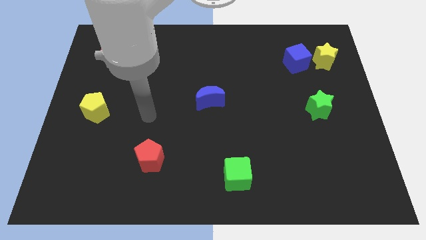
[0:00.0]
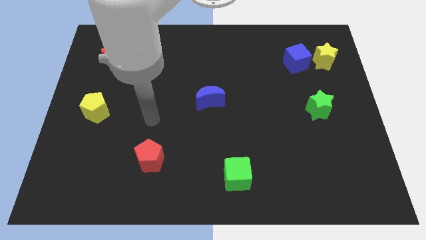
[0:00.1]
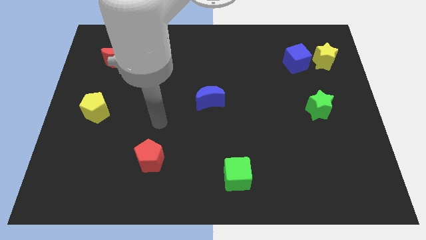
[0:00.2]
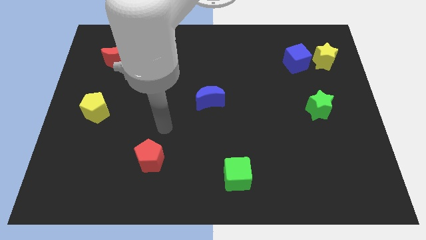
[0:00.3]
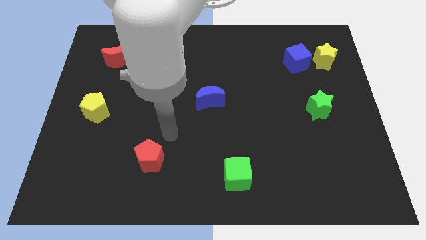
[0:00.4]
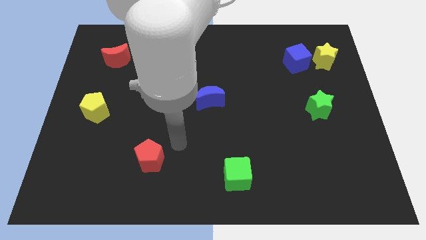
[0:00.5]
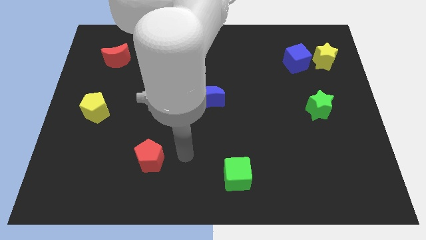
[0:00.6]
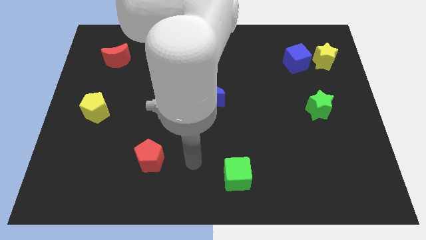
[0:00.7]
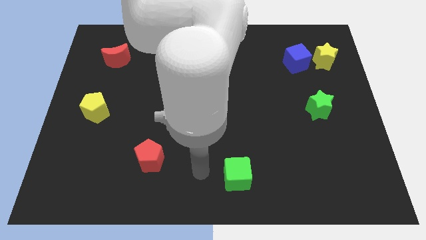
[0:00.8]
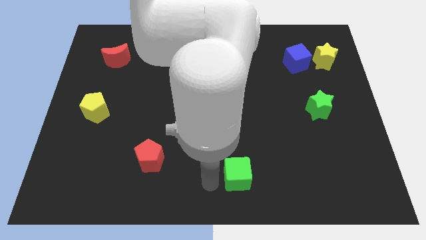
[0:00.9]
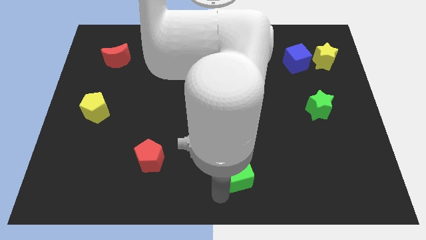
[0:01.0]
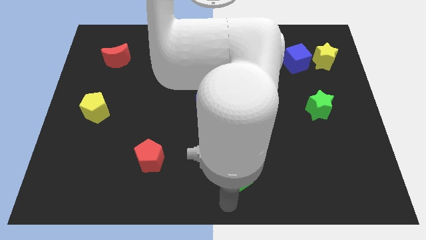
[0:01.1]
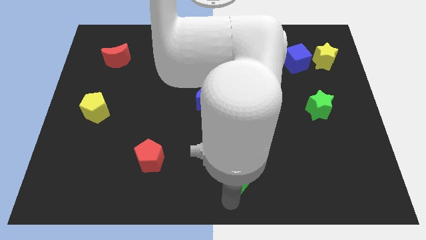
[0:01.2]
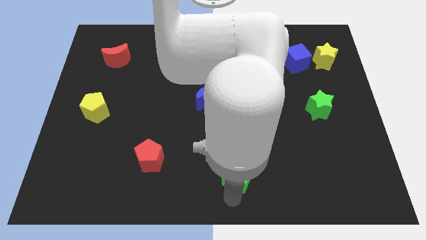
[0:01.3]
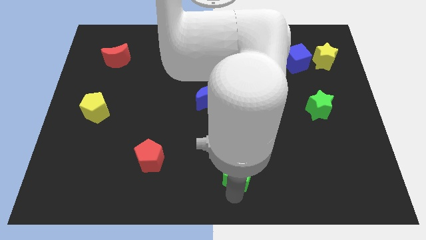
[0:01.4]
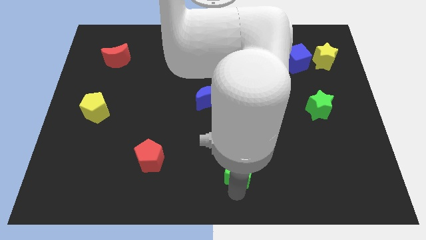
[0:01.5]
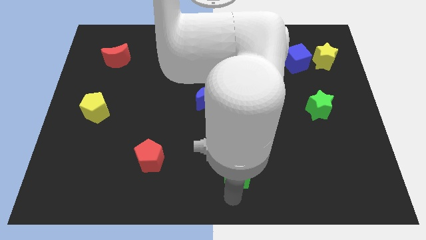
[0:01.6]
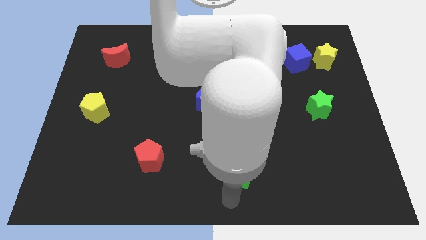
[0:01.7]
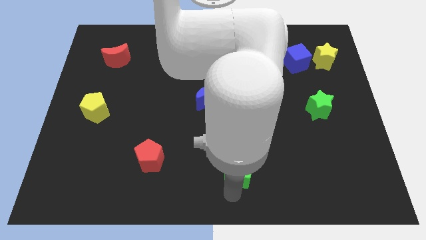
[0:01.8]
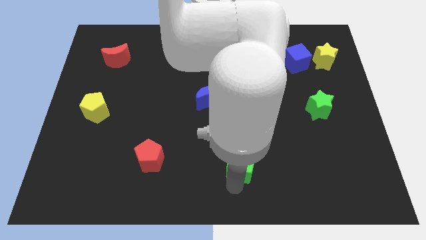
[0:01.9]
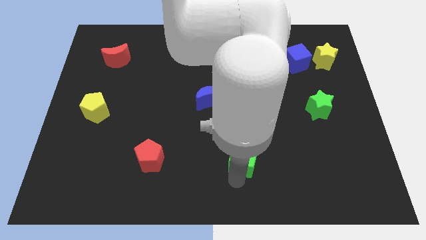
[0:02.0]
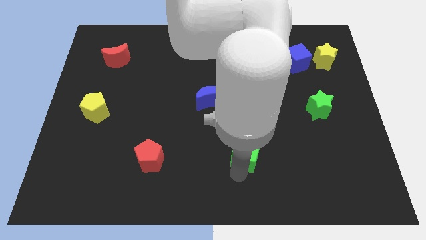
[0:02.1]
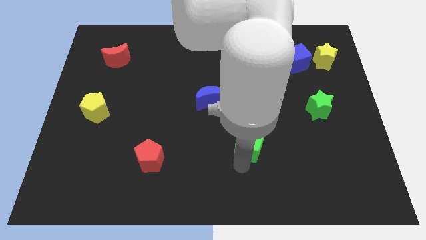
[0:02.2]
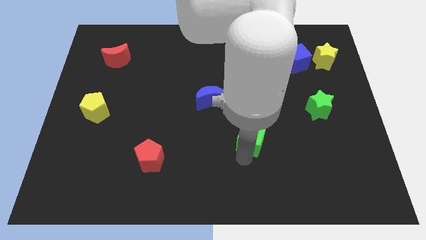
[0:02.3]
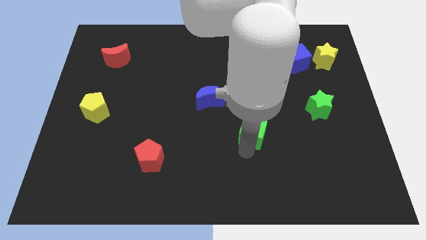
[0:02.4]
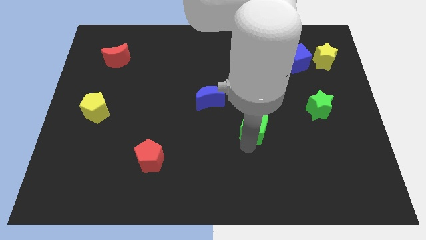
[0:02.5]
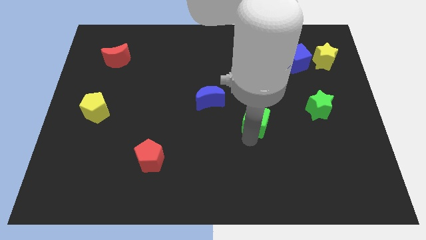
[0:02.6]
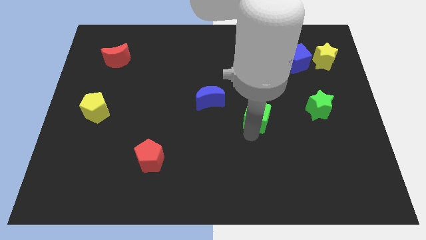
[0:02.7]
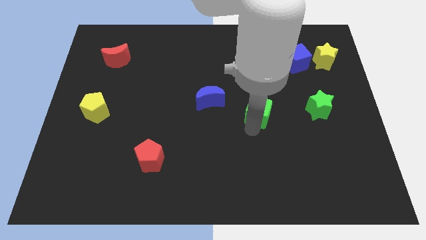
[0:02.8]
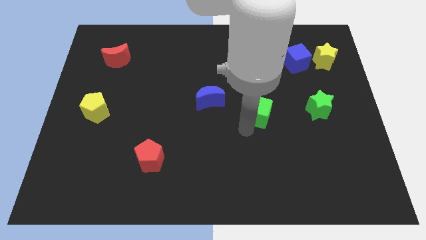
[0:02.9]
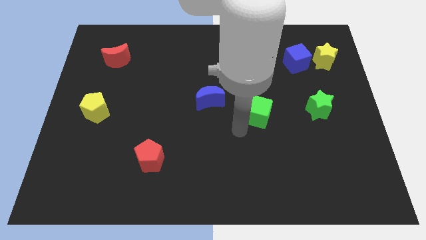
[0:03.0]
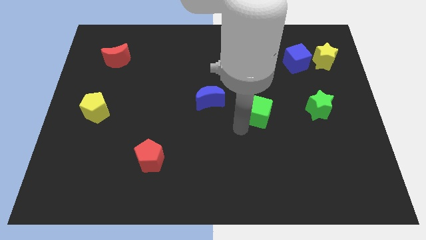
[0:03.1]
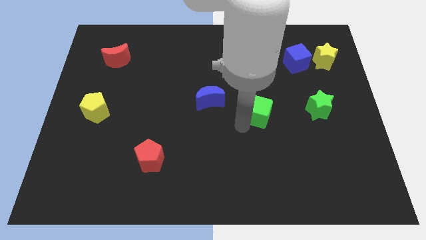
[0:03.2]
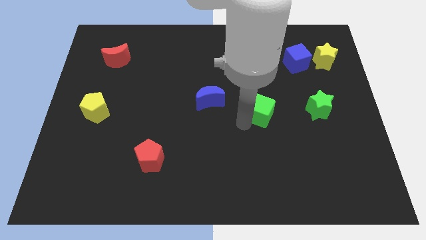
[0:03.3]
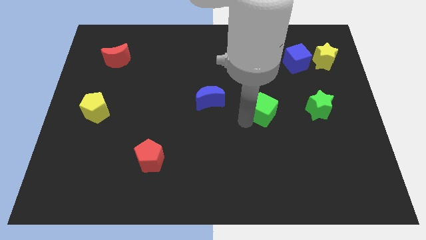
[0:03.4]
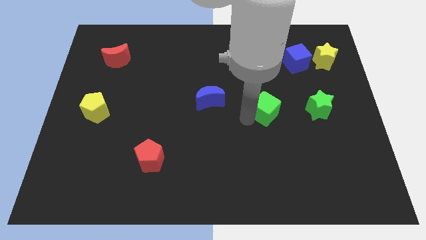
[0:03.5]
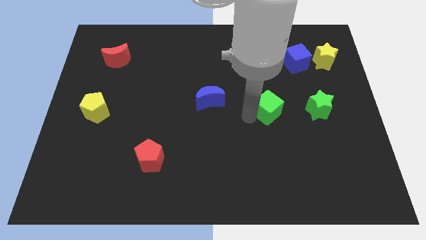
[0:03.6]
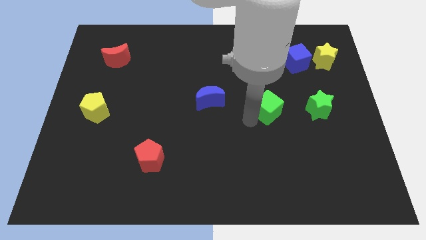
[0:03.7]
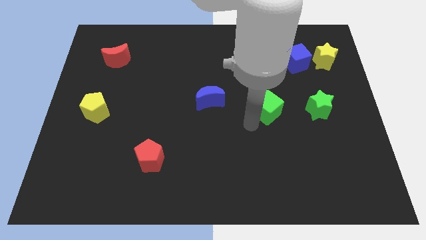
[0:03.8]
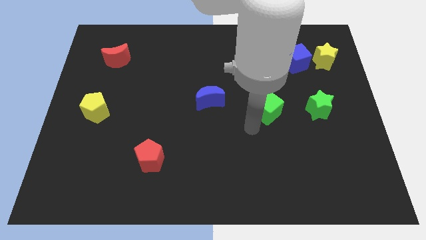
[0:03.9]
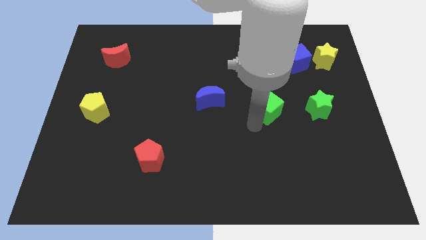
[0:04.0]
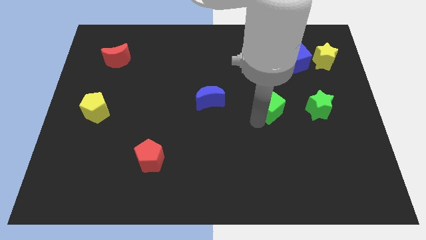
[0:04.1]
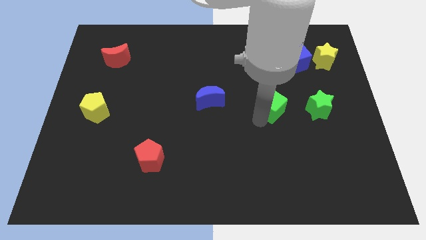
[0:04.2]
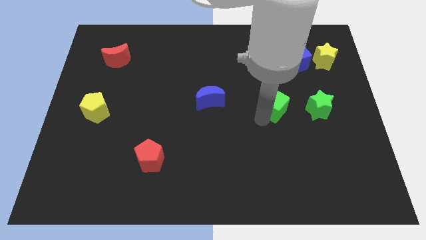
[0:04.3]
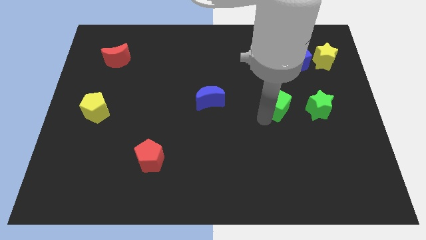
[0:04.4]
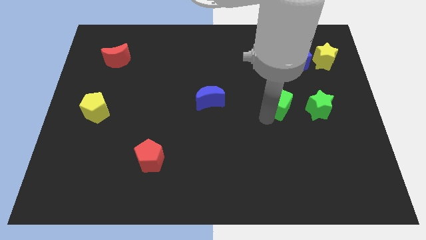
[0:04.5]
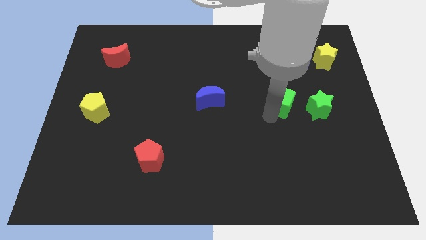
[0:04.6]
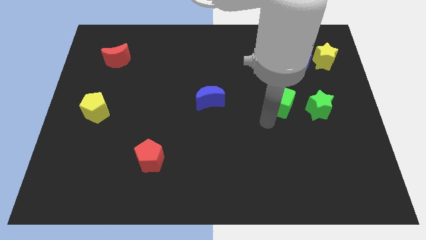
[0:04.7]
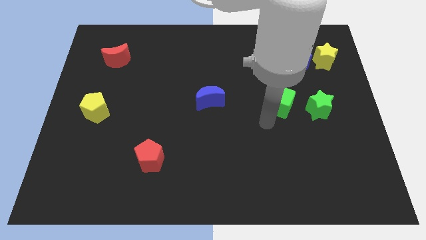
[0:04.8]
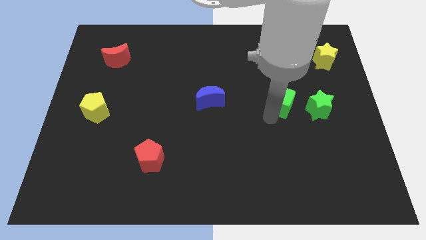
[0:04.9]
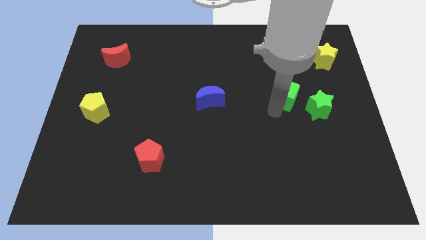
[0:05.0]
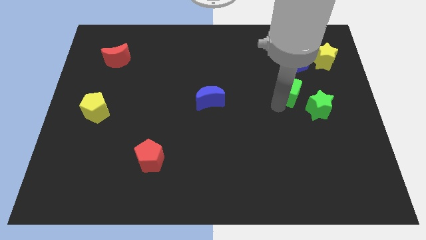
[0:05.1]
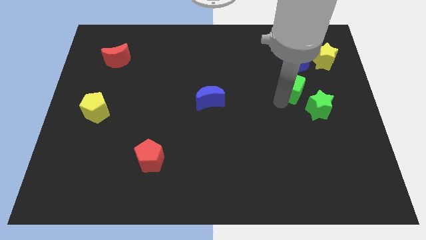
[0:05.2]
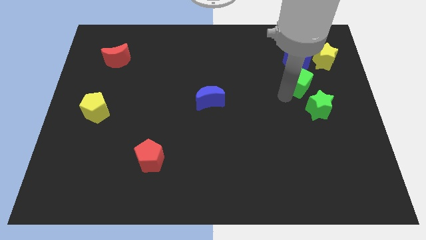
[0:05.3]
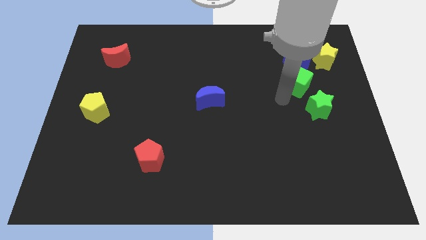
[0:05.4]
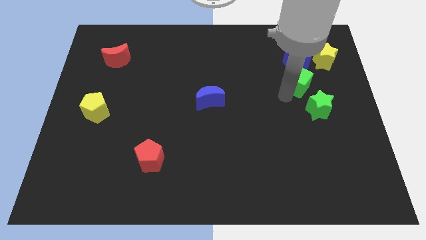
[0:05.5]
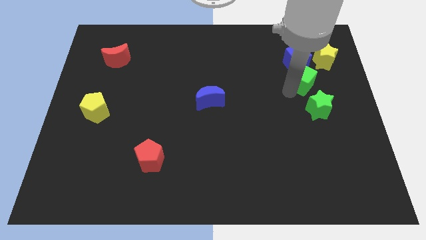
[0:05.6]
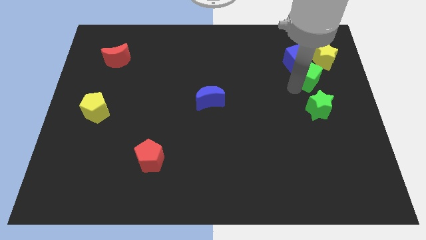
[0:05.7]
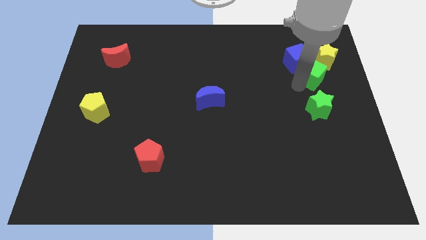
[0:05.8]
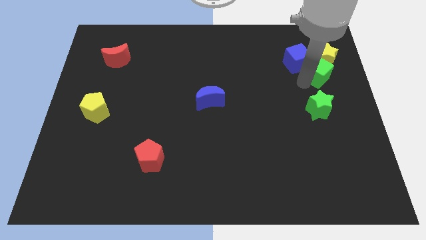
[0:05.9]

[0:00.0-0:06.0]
push the green cube to the yellow star

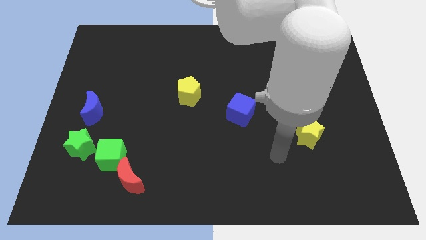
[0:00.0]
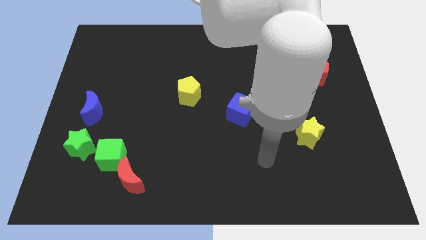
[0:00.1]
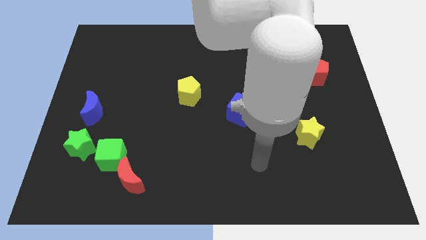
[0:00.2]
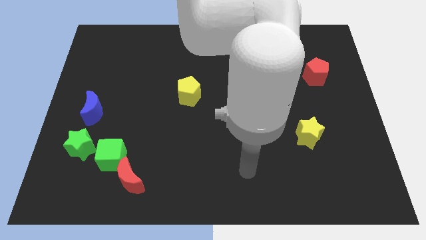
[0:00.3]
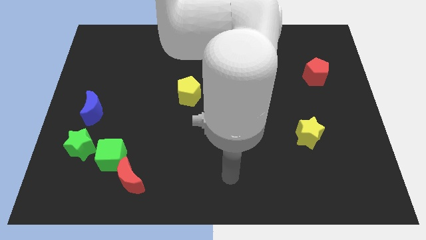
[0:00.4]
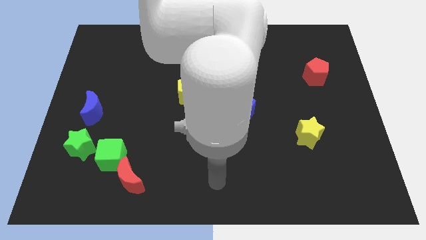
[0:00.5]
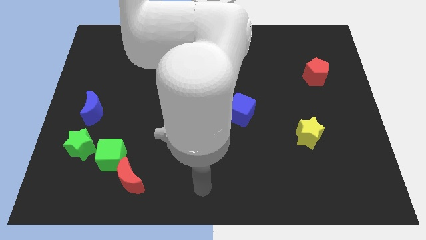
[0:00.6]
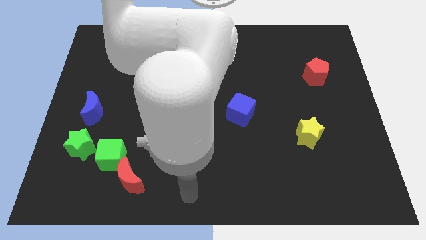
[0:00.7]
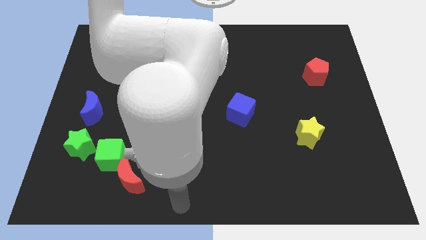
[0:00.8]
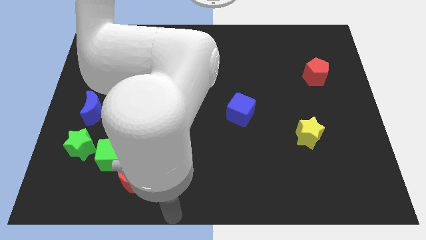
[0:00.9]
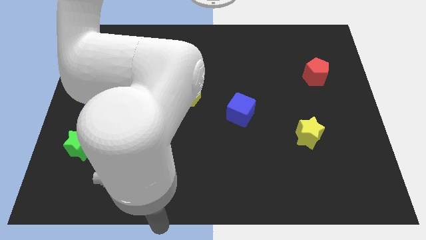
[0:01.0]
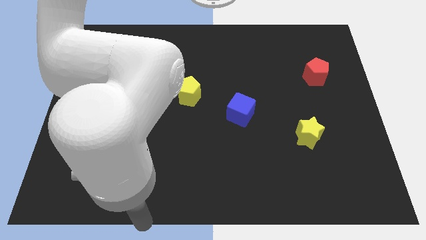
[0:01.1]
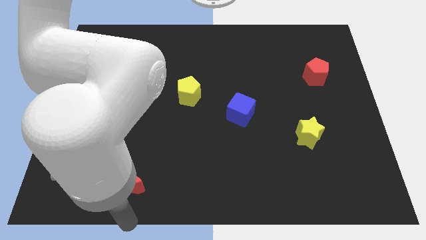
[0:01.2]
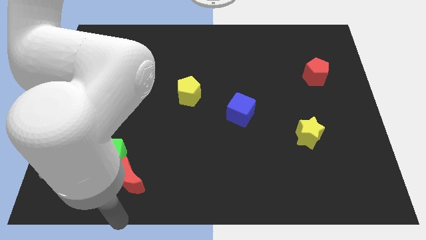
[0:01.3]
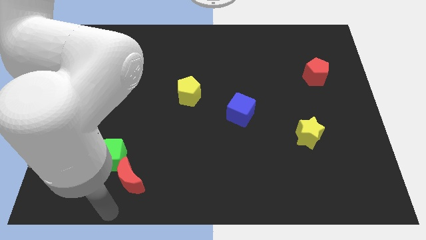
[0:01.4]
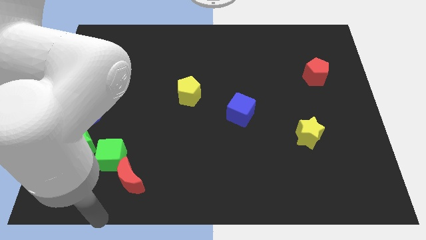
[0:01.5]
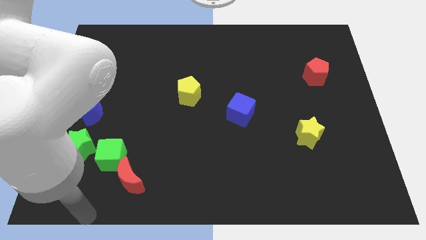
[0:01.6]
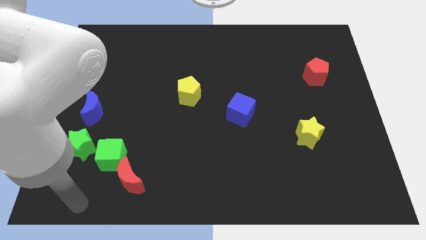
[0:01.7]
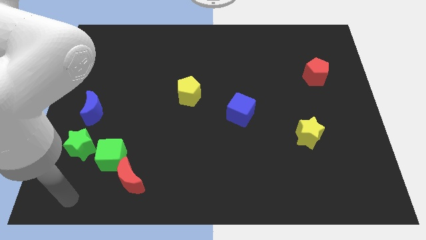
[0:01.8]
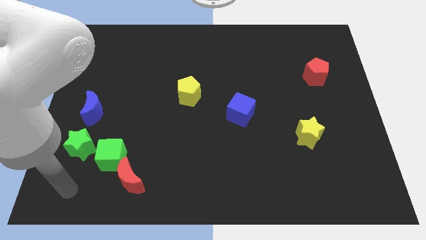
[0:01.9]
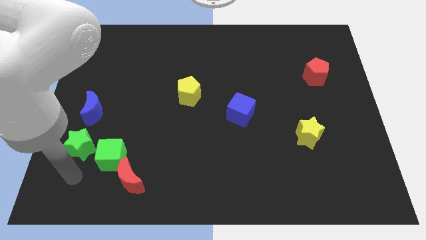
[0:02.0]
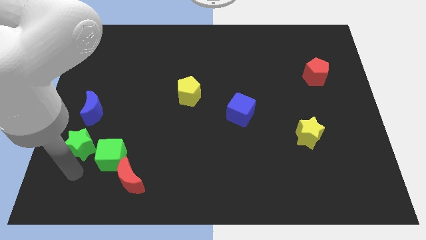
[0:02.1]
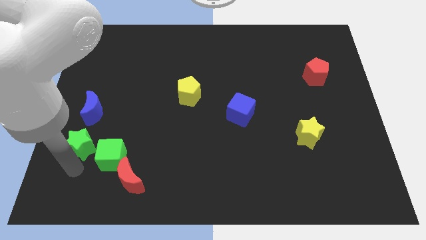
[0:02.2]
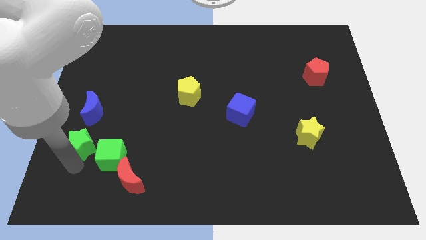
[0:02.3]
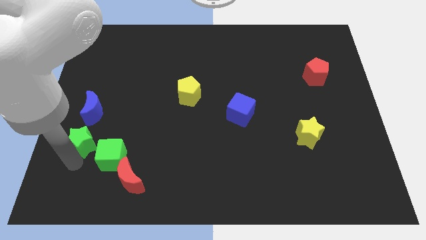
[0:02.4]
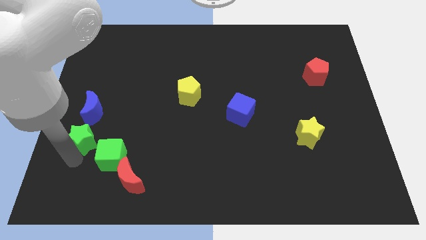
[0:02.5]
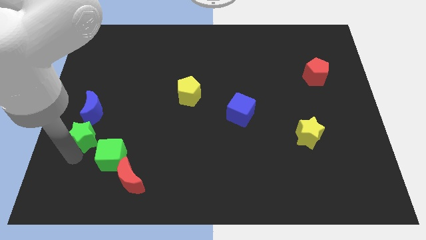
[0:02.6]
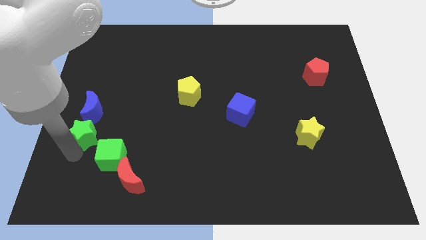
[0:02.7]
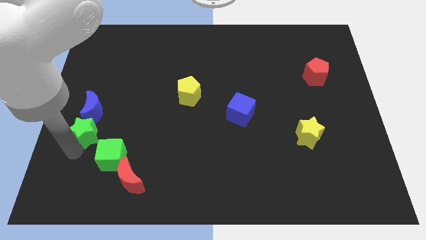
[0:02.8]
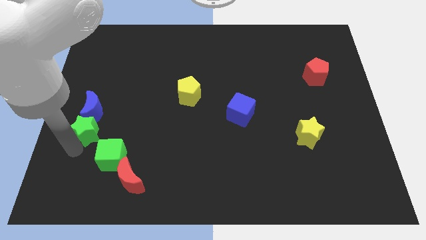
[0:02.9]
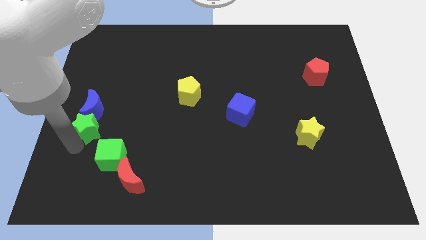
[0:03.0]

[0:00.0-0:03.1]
push the green star close to the blue moon
